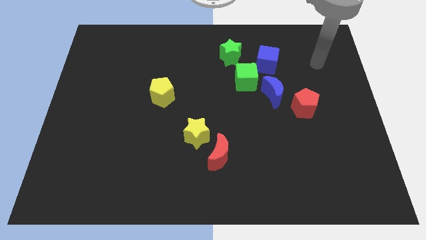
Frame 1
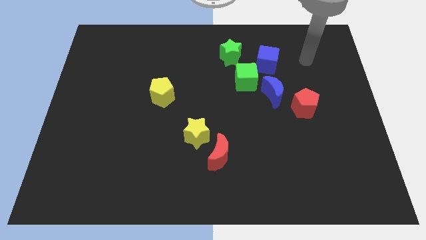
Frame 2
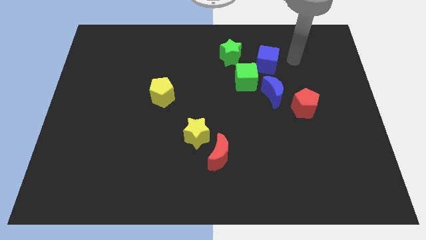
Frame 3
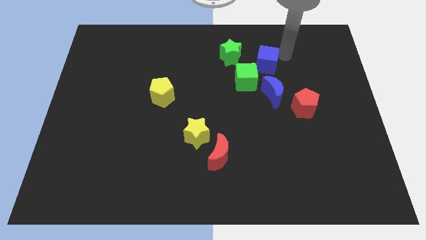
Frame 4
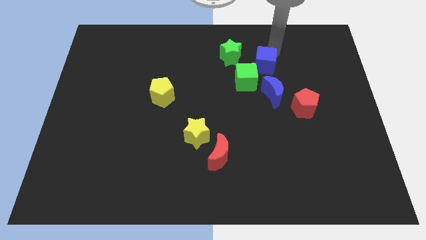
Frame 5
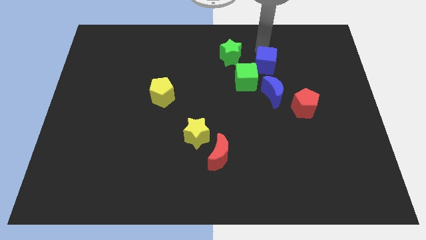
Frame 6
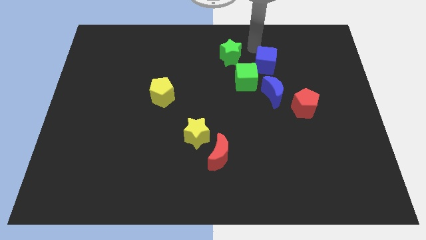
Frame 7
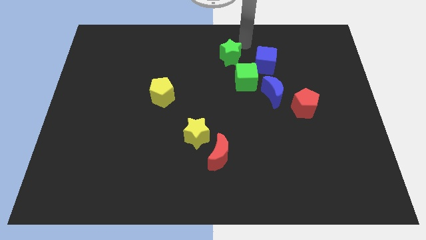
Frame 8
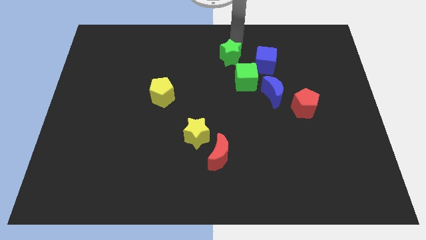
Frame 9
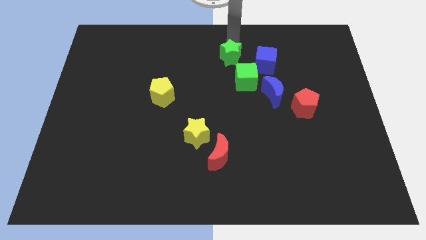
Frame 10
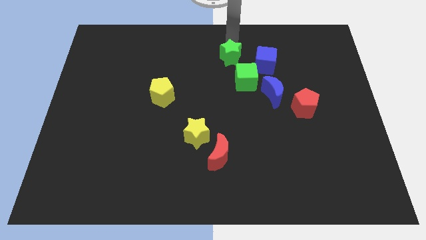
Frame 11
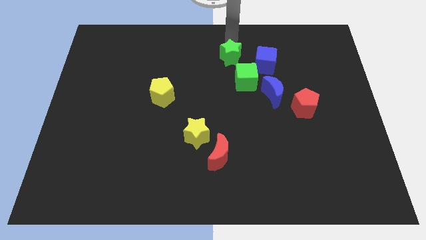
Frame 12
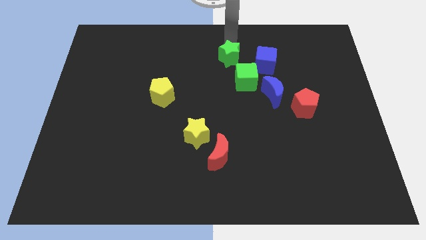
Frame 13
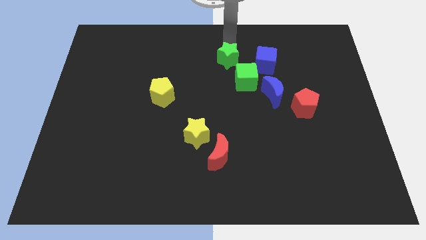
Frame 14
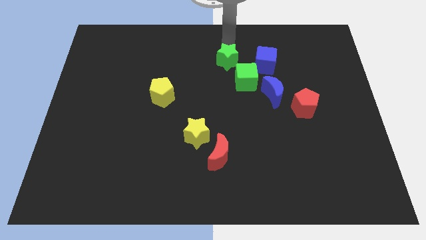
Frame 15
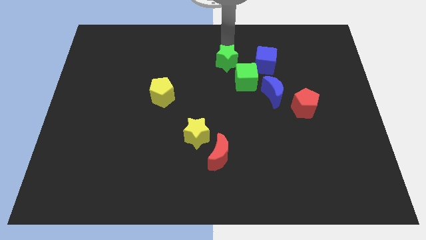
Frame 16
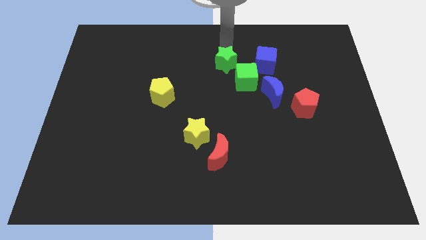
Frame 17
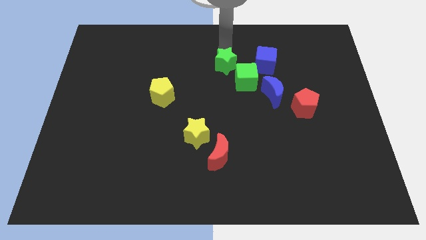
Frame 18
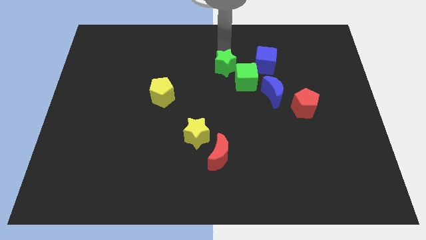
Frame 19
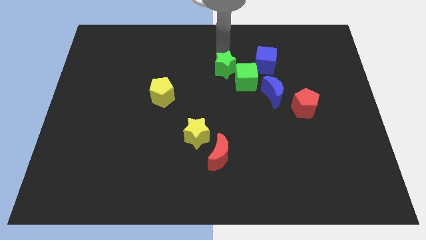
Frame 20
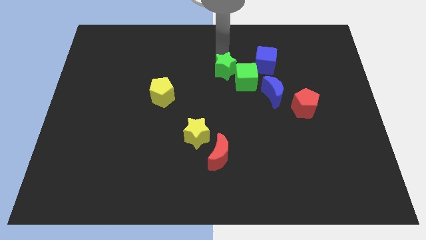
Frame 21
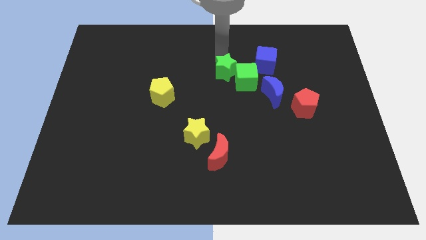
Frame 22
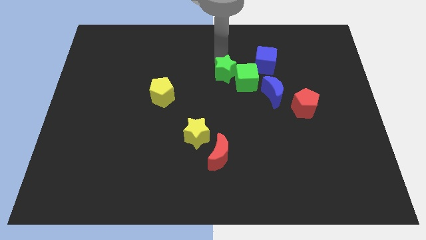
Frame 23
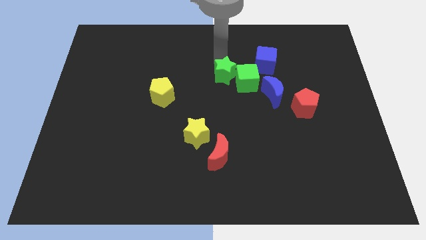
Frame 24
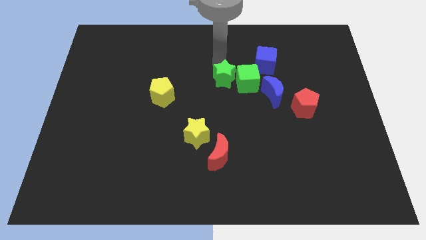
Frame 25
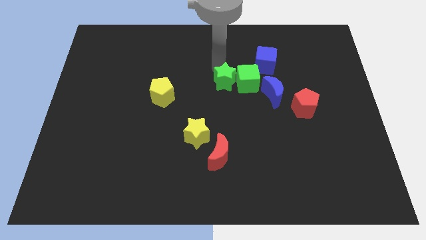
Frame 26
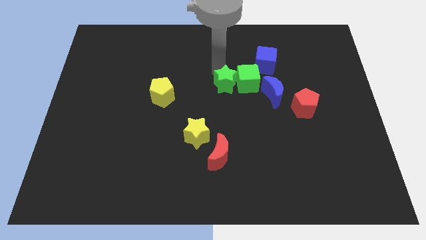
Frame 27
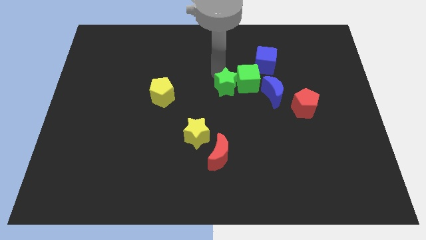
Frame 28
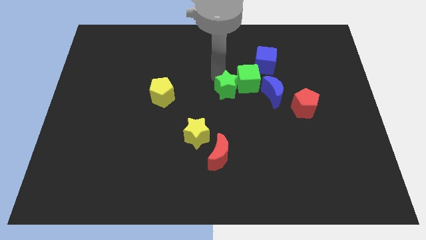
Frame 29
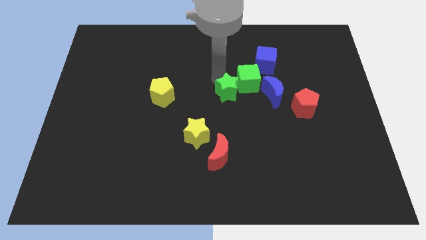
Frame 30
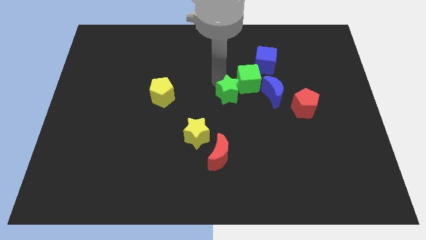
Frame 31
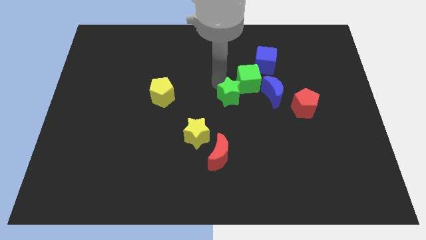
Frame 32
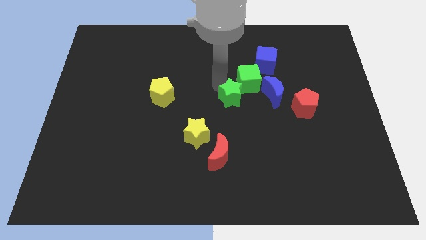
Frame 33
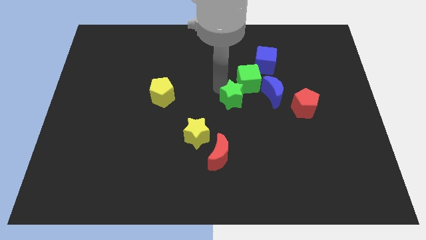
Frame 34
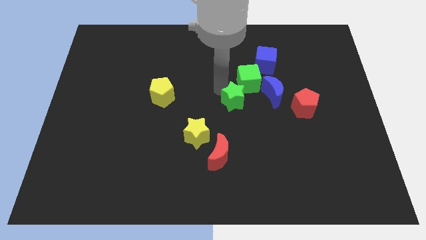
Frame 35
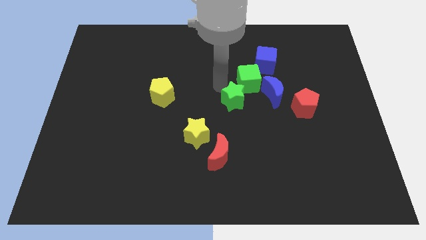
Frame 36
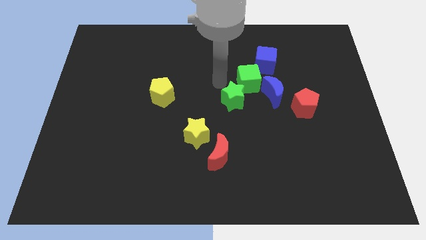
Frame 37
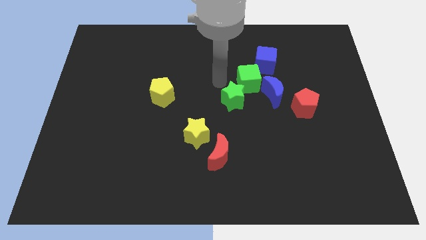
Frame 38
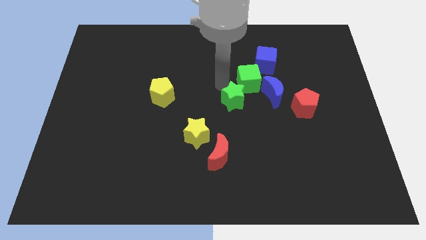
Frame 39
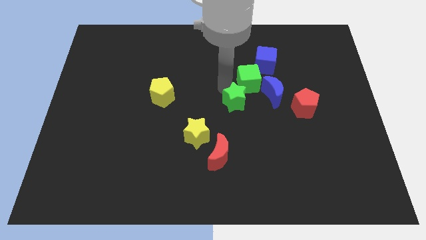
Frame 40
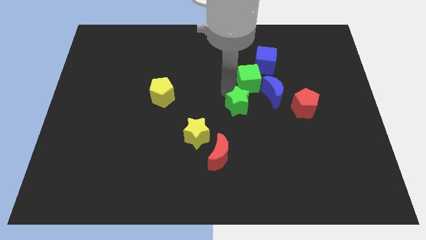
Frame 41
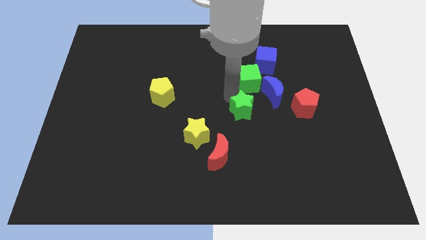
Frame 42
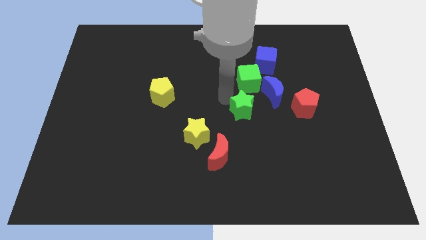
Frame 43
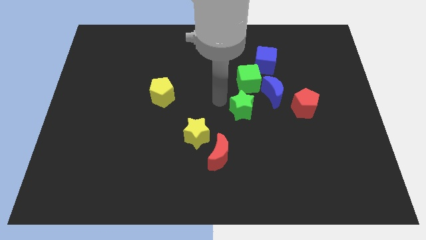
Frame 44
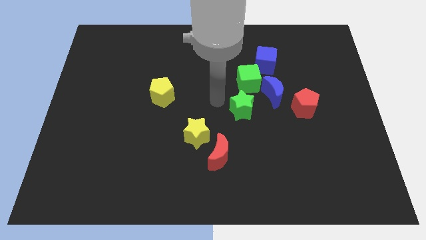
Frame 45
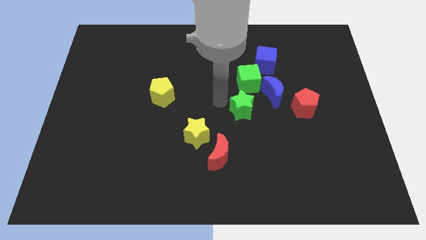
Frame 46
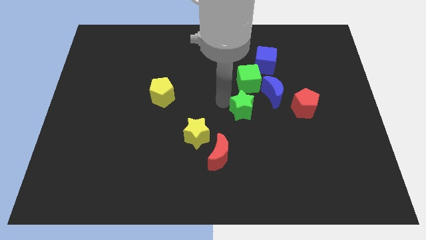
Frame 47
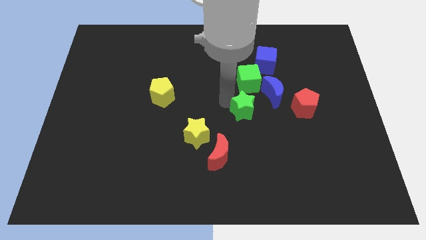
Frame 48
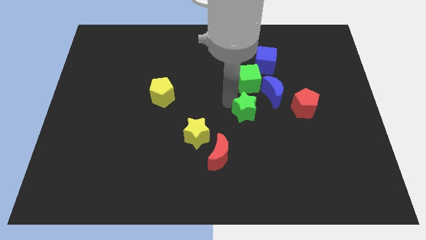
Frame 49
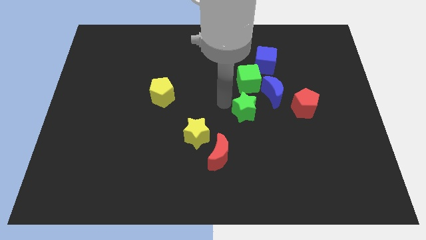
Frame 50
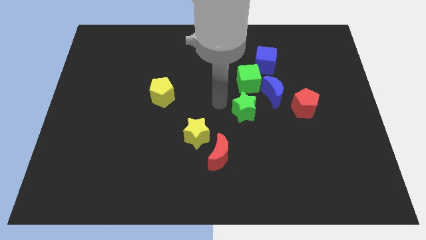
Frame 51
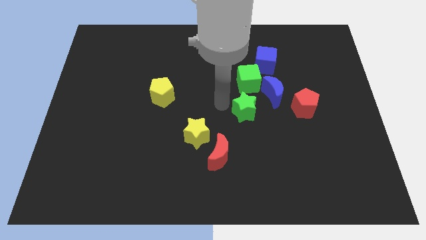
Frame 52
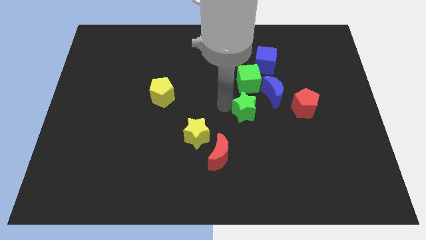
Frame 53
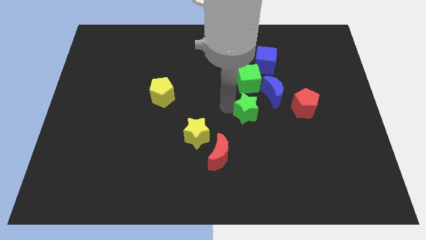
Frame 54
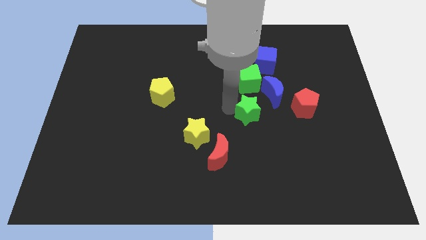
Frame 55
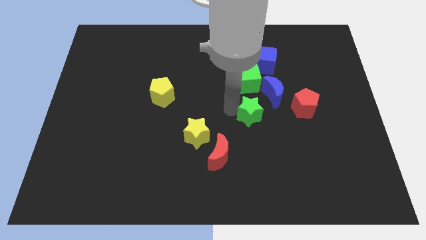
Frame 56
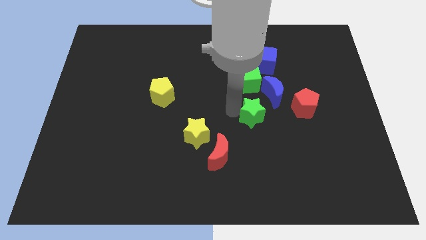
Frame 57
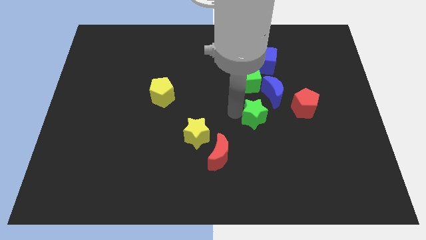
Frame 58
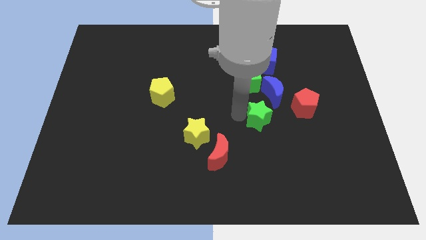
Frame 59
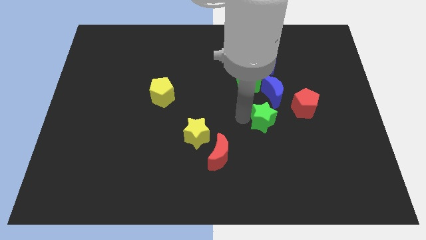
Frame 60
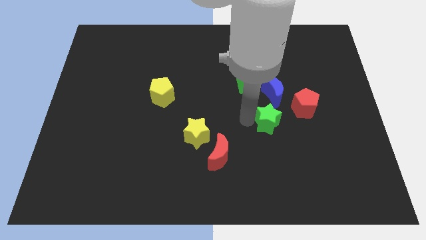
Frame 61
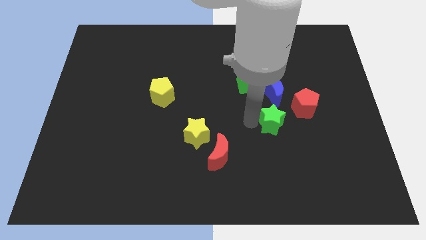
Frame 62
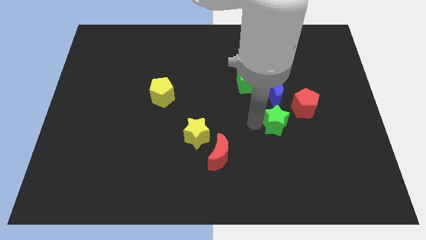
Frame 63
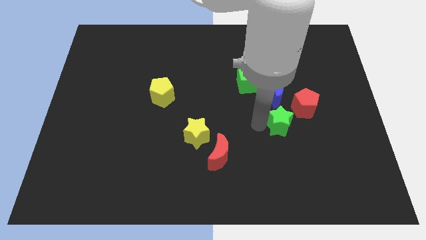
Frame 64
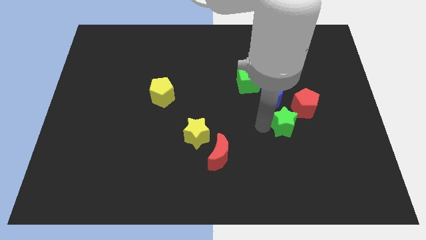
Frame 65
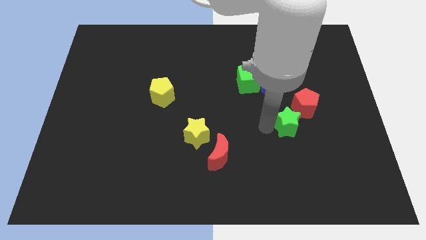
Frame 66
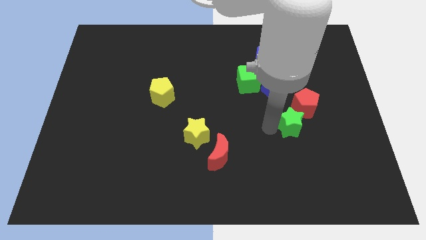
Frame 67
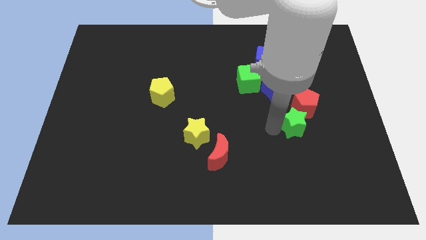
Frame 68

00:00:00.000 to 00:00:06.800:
put the green star towards the red pentagon
